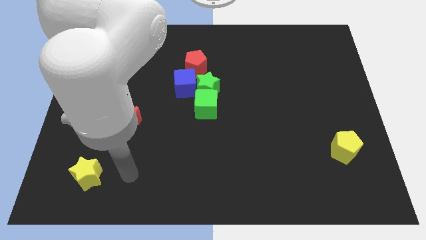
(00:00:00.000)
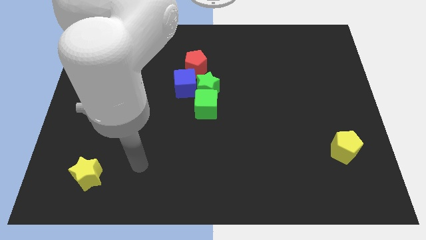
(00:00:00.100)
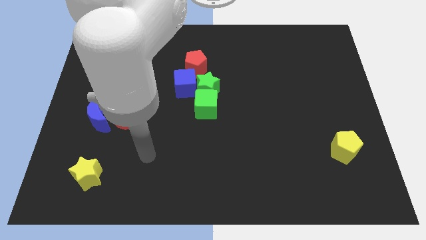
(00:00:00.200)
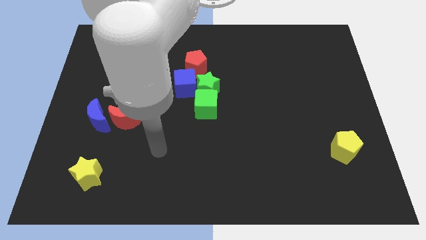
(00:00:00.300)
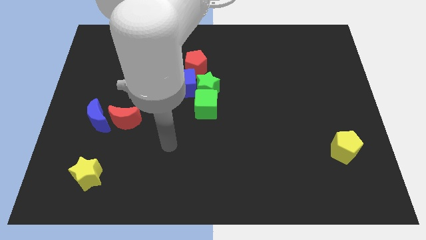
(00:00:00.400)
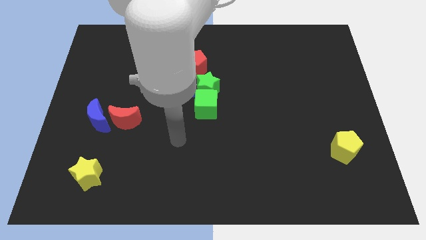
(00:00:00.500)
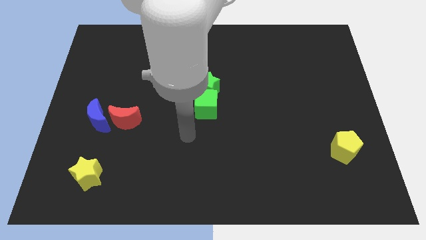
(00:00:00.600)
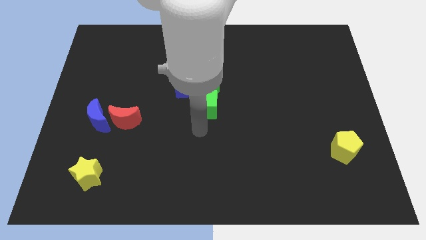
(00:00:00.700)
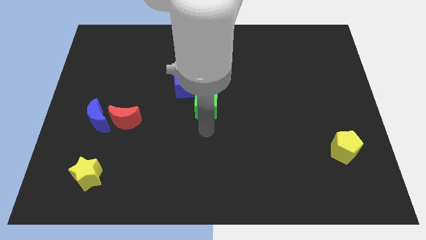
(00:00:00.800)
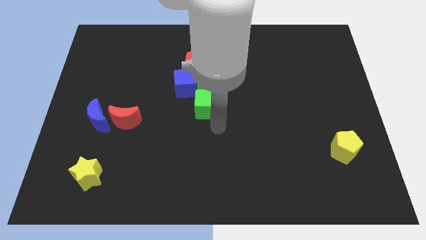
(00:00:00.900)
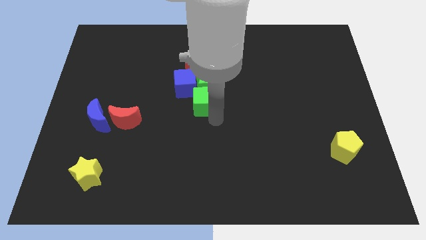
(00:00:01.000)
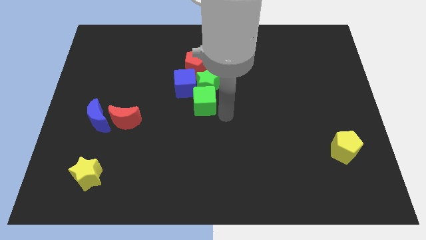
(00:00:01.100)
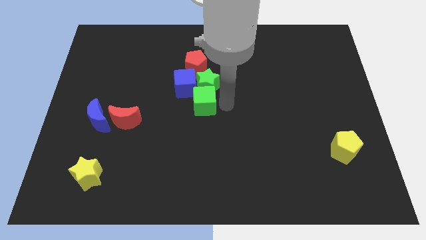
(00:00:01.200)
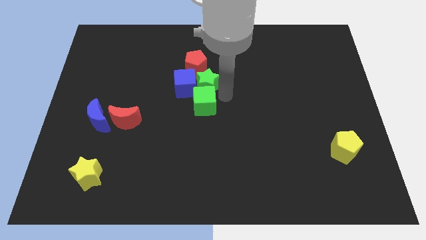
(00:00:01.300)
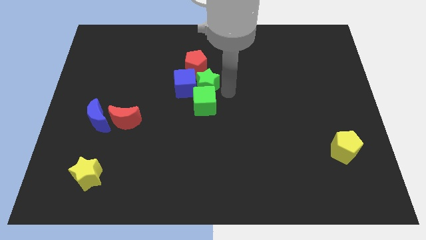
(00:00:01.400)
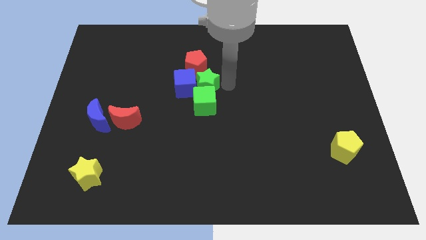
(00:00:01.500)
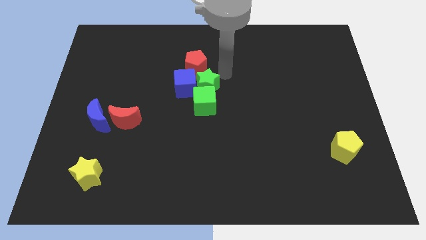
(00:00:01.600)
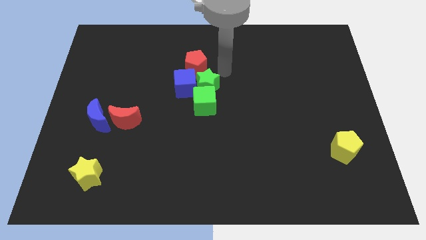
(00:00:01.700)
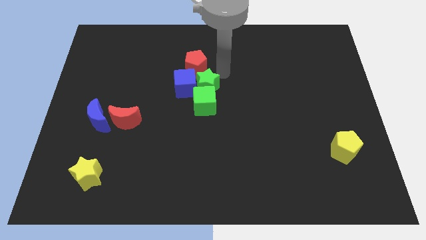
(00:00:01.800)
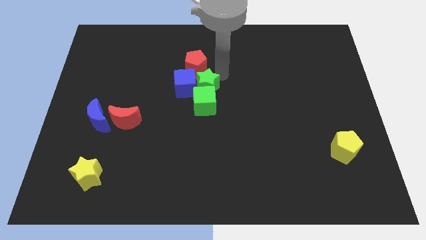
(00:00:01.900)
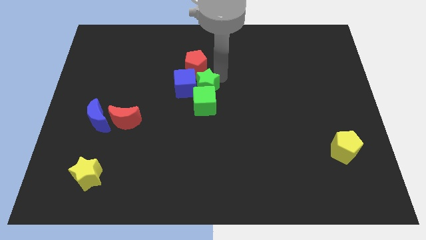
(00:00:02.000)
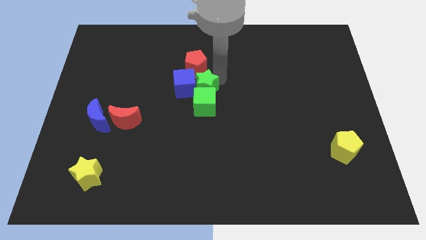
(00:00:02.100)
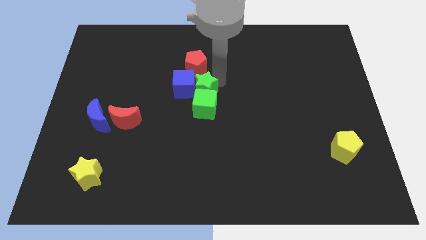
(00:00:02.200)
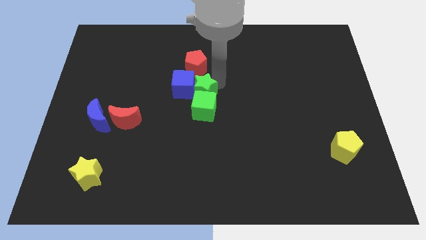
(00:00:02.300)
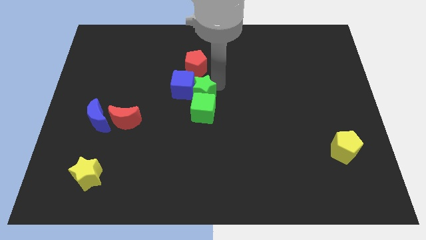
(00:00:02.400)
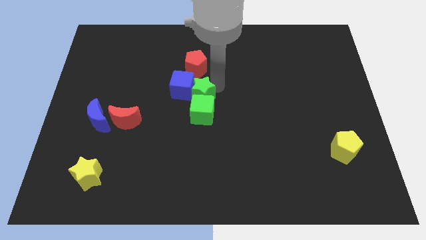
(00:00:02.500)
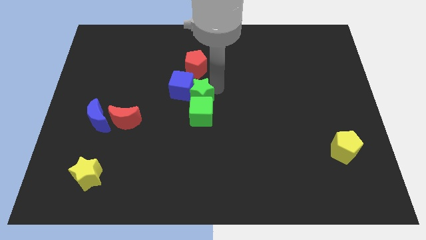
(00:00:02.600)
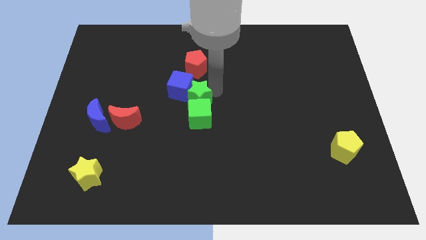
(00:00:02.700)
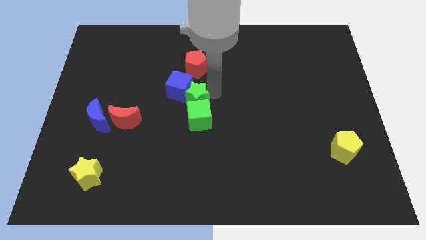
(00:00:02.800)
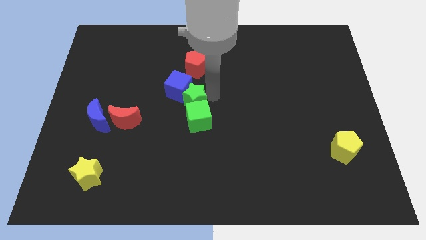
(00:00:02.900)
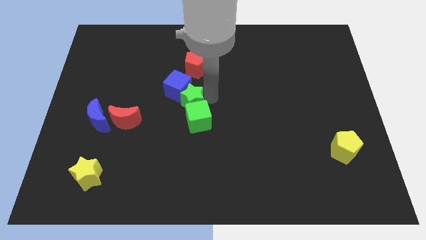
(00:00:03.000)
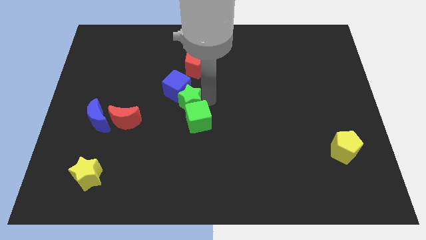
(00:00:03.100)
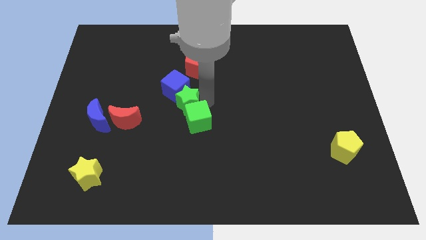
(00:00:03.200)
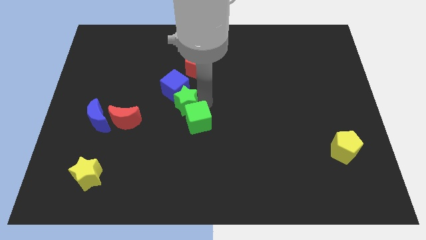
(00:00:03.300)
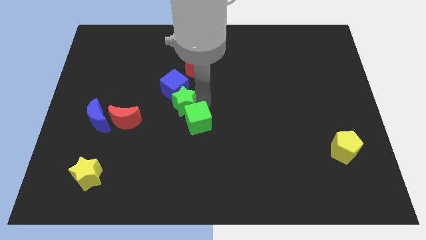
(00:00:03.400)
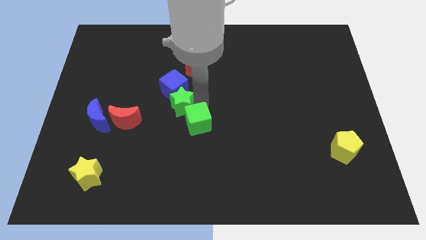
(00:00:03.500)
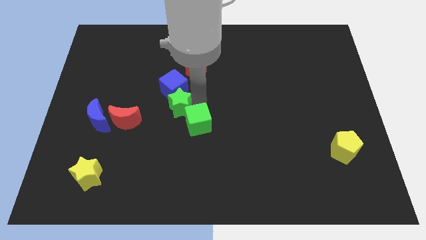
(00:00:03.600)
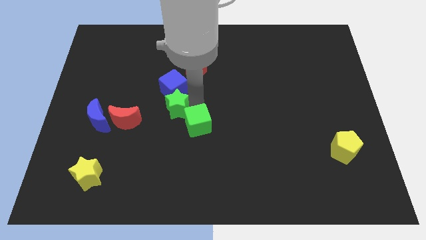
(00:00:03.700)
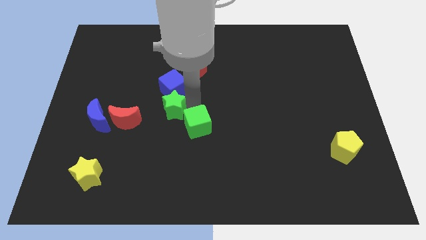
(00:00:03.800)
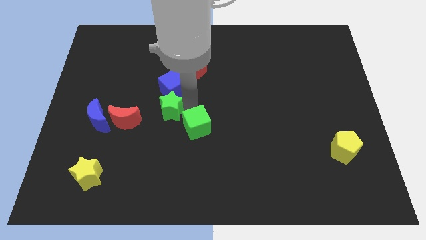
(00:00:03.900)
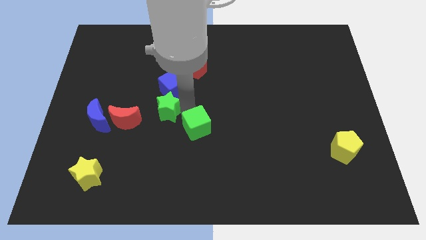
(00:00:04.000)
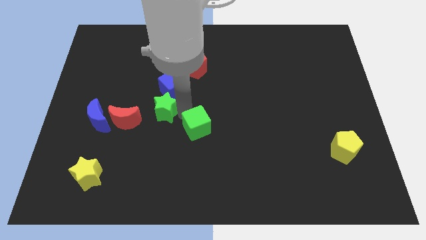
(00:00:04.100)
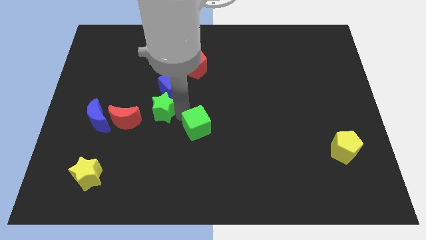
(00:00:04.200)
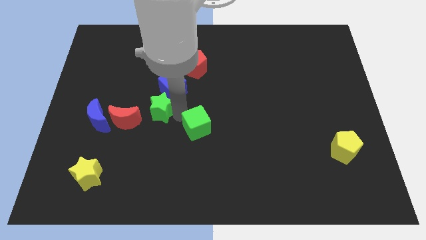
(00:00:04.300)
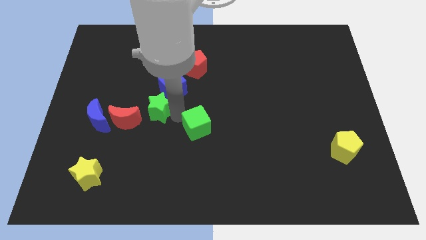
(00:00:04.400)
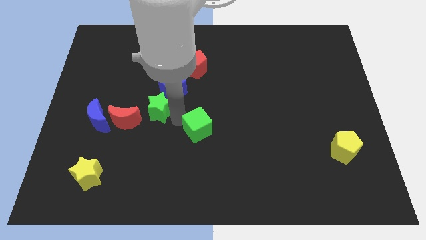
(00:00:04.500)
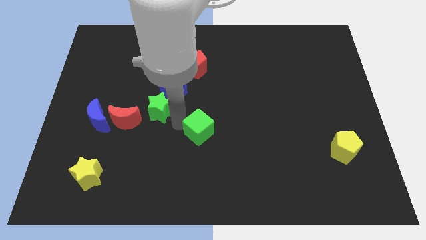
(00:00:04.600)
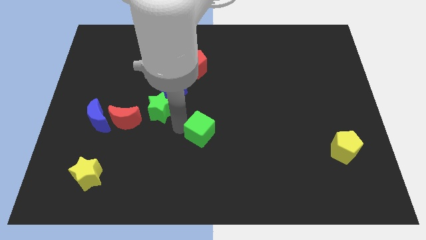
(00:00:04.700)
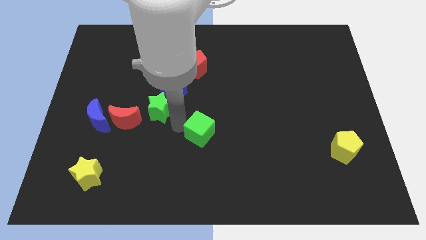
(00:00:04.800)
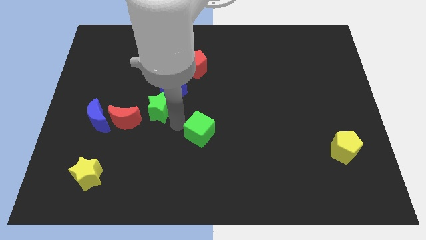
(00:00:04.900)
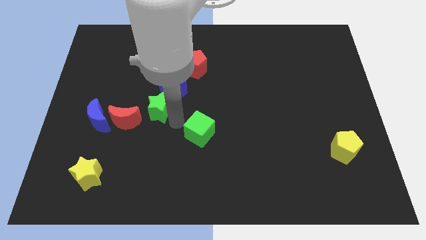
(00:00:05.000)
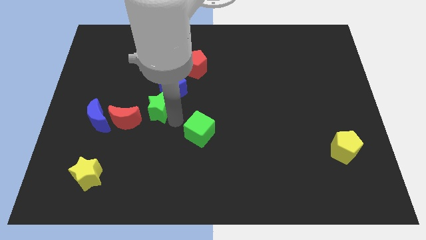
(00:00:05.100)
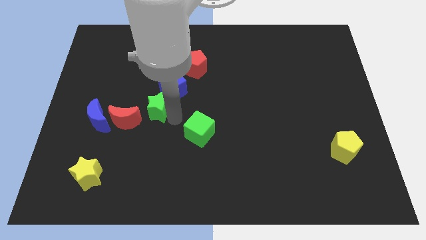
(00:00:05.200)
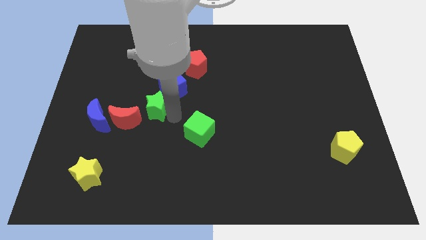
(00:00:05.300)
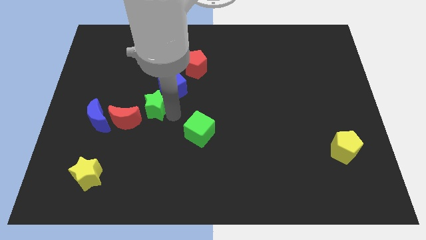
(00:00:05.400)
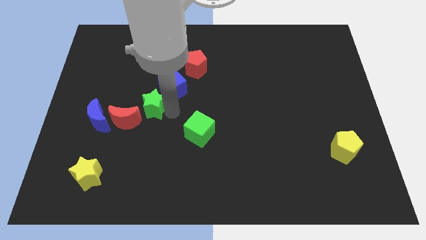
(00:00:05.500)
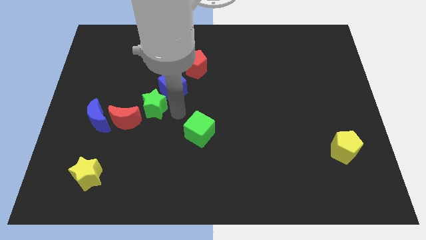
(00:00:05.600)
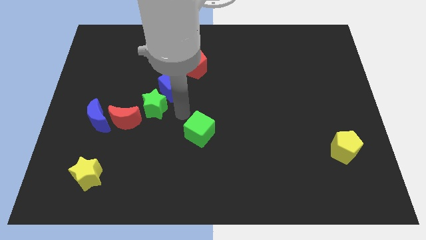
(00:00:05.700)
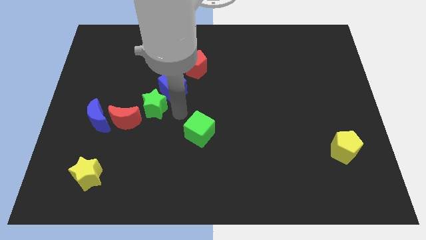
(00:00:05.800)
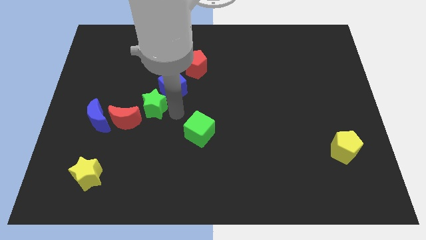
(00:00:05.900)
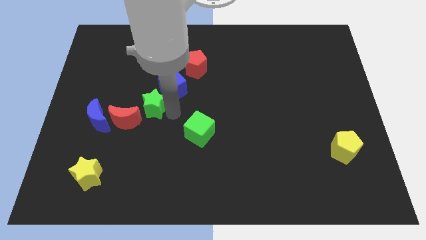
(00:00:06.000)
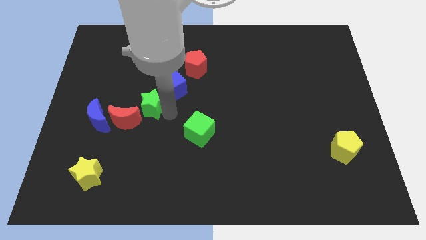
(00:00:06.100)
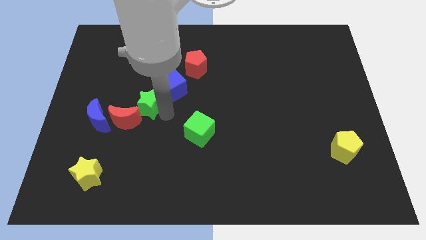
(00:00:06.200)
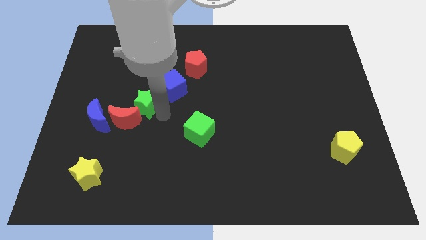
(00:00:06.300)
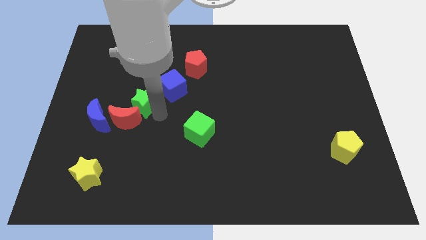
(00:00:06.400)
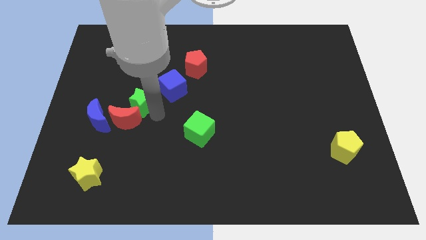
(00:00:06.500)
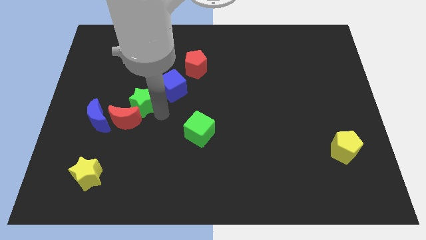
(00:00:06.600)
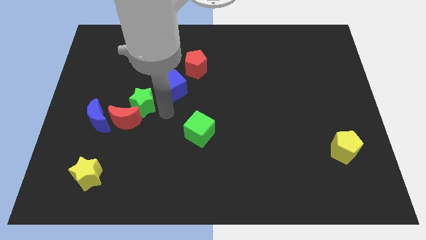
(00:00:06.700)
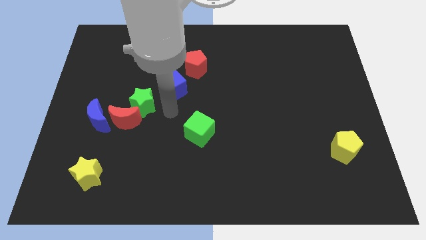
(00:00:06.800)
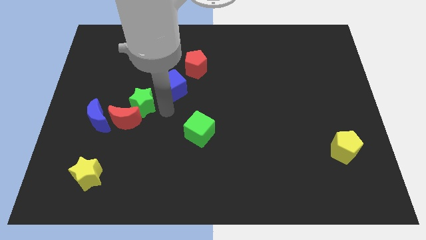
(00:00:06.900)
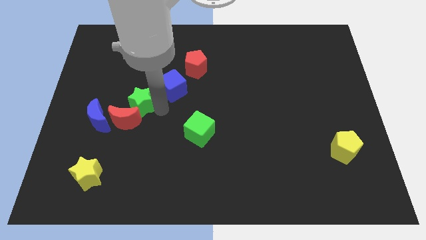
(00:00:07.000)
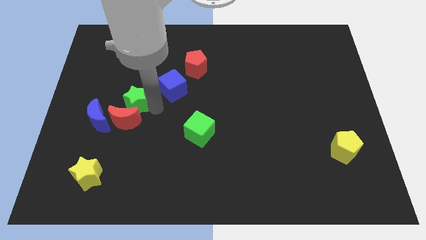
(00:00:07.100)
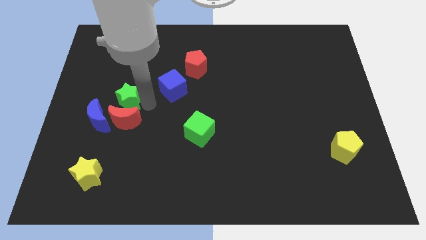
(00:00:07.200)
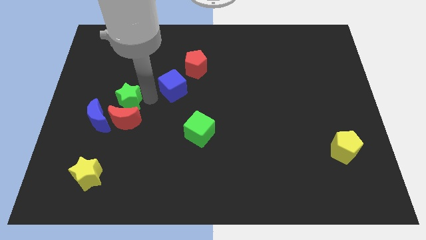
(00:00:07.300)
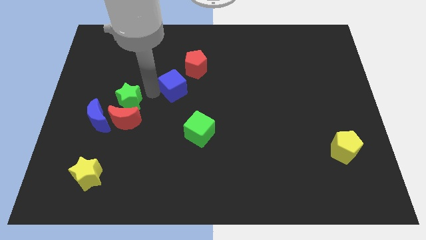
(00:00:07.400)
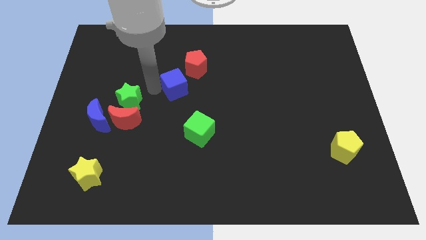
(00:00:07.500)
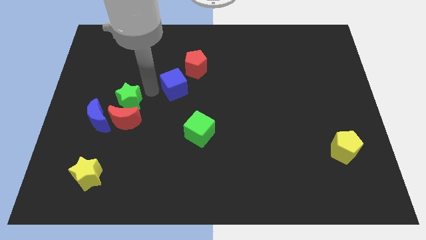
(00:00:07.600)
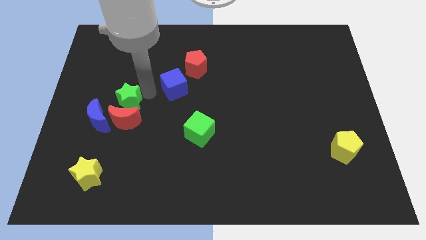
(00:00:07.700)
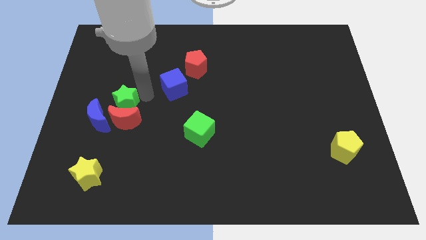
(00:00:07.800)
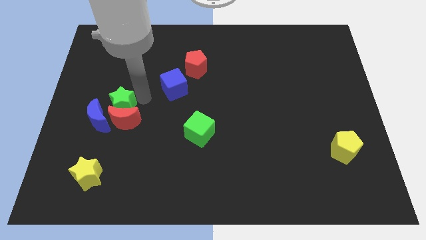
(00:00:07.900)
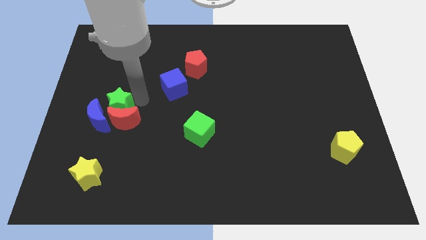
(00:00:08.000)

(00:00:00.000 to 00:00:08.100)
put the green star next to the blue moon
